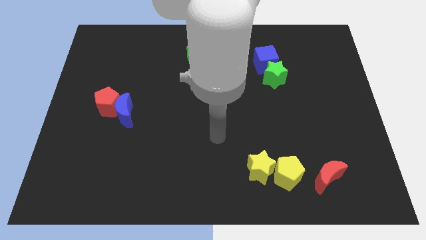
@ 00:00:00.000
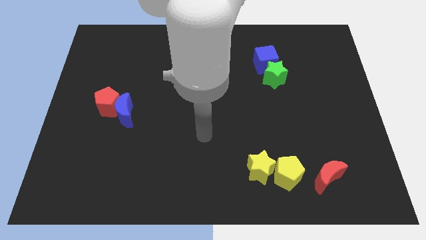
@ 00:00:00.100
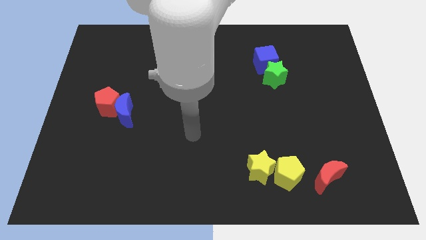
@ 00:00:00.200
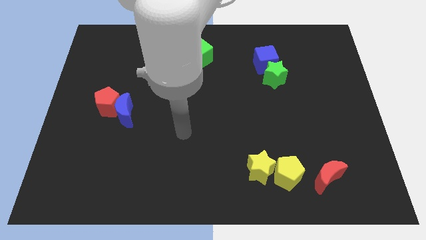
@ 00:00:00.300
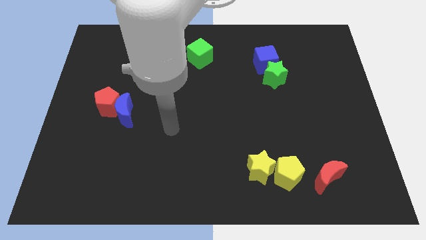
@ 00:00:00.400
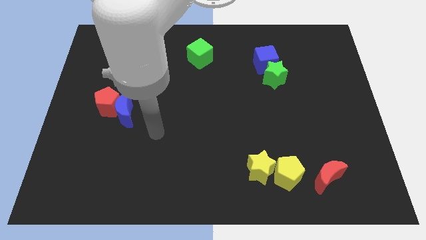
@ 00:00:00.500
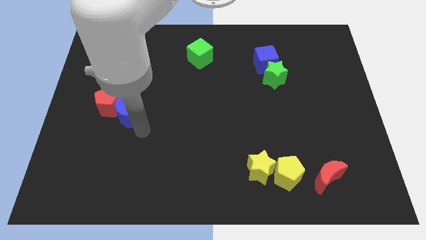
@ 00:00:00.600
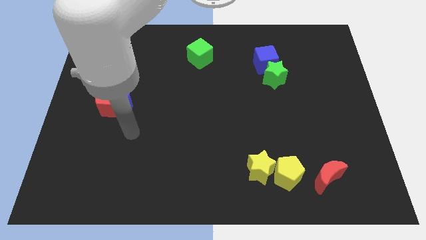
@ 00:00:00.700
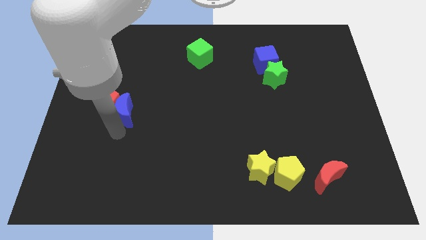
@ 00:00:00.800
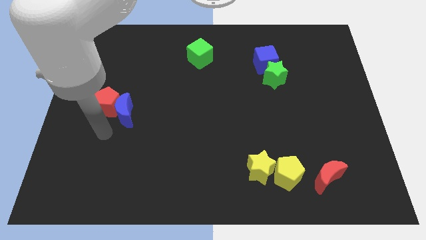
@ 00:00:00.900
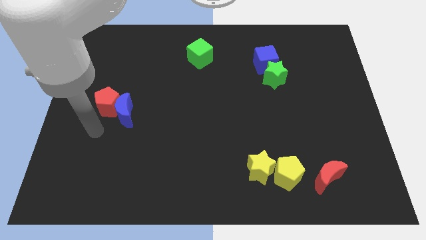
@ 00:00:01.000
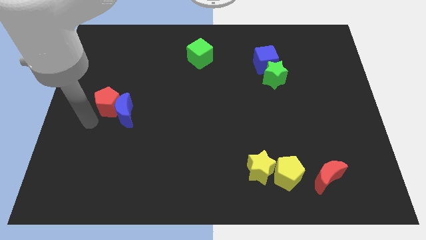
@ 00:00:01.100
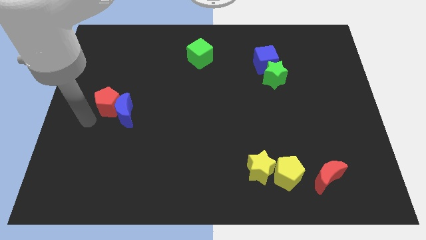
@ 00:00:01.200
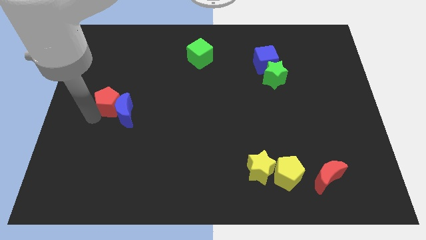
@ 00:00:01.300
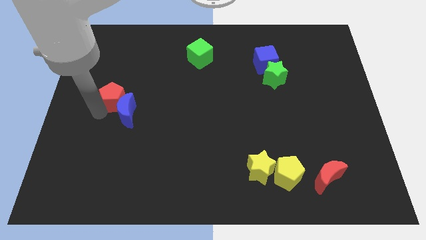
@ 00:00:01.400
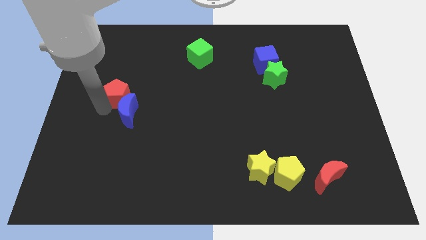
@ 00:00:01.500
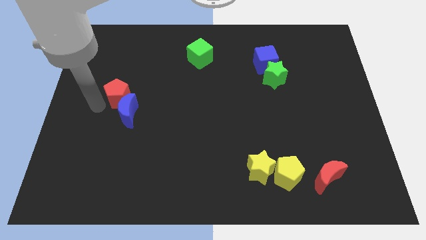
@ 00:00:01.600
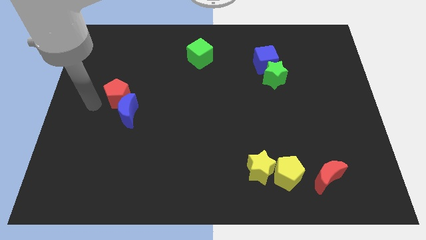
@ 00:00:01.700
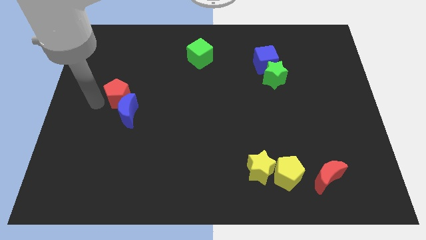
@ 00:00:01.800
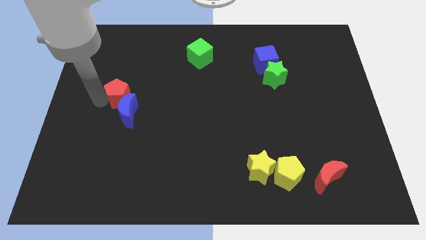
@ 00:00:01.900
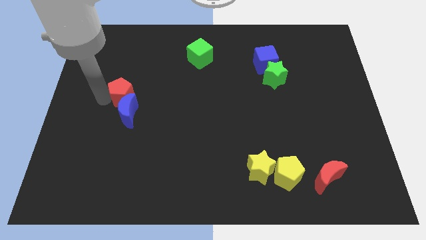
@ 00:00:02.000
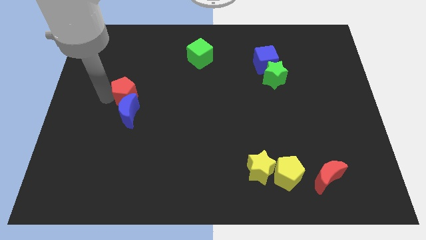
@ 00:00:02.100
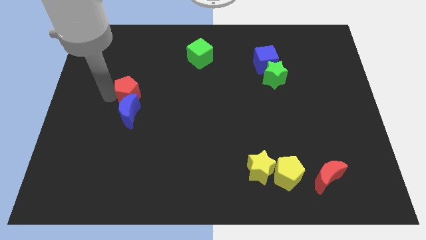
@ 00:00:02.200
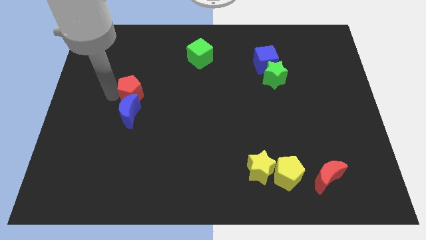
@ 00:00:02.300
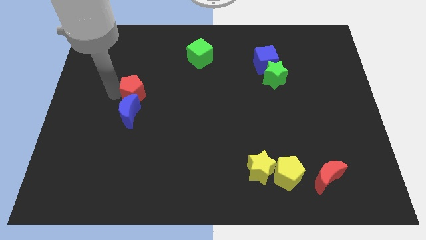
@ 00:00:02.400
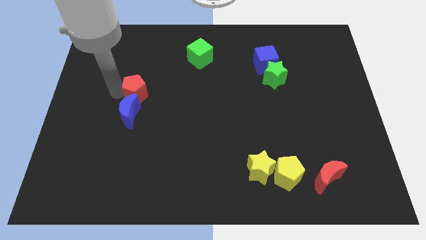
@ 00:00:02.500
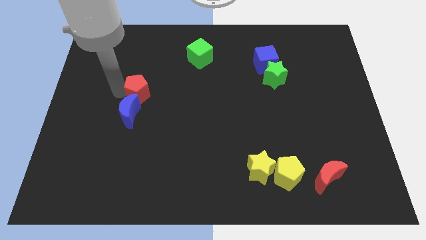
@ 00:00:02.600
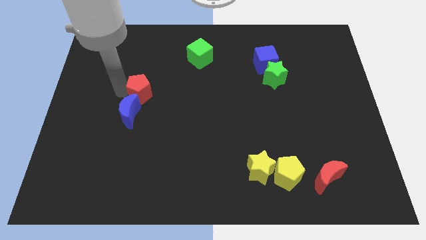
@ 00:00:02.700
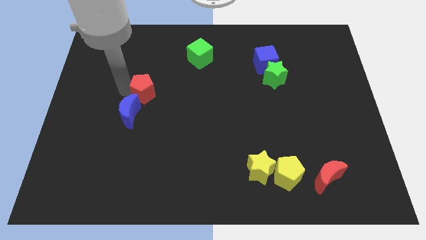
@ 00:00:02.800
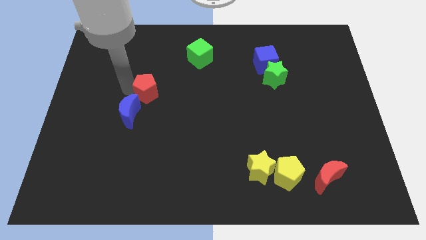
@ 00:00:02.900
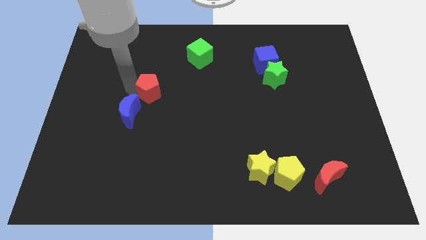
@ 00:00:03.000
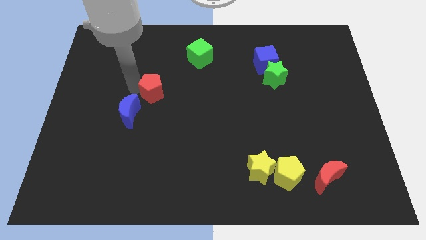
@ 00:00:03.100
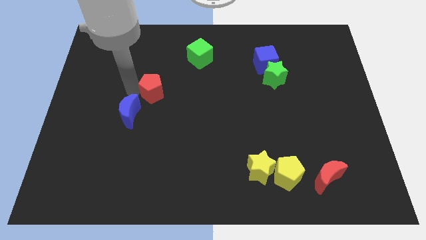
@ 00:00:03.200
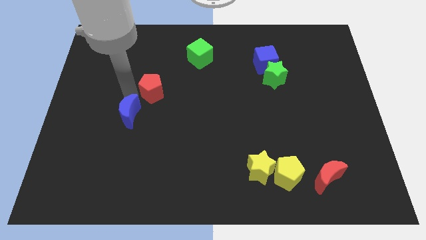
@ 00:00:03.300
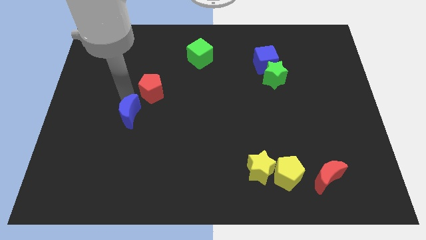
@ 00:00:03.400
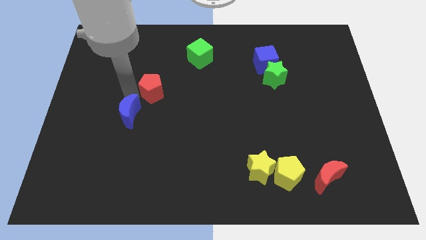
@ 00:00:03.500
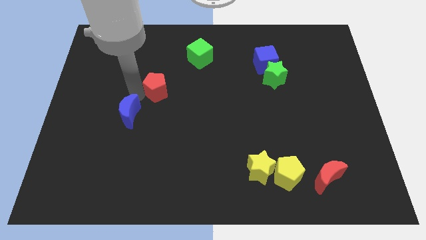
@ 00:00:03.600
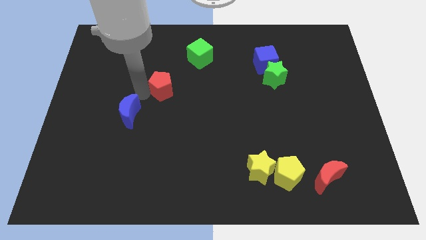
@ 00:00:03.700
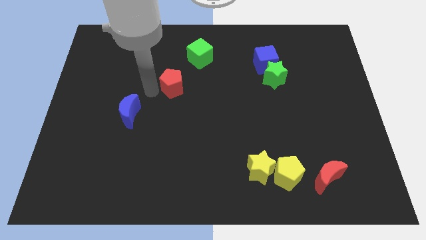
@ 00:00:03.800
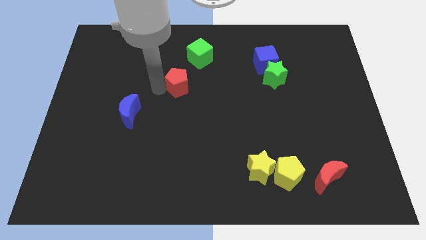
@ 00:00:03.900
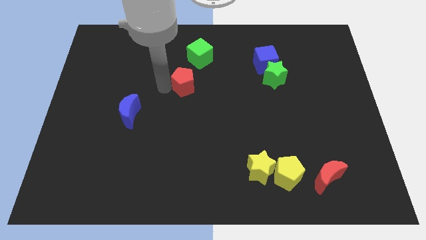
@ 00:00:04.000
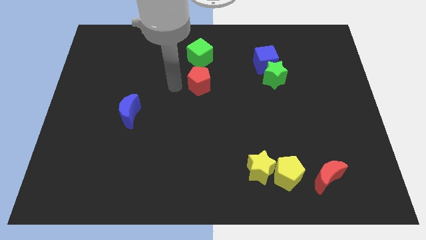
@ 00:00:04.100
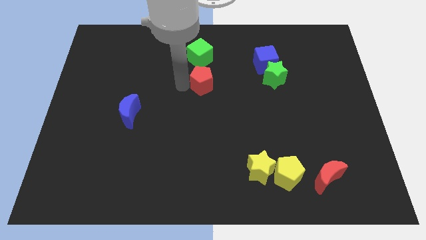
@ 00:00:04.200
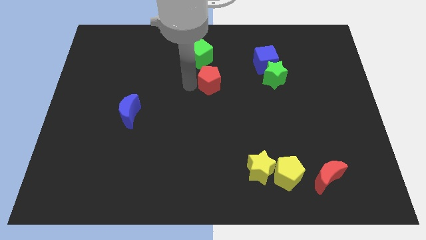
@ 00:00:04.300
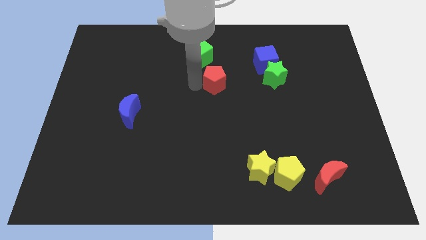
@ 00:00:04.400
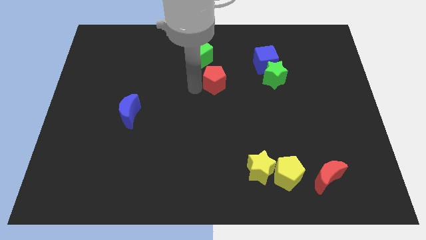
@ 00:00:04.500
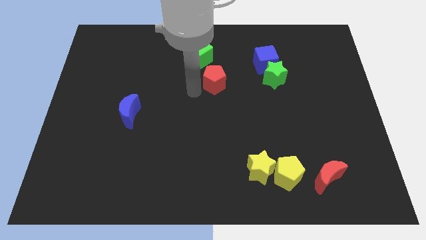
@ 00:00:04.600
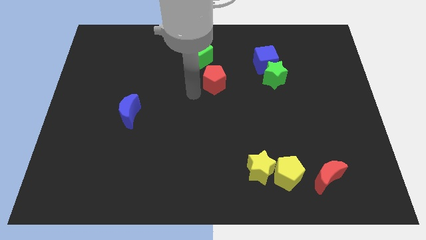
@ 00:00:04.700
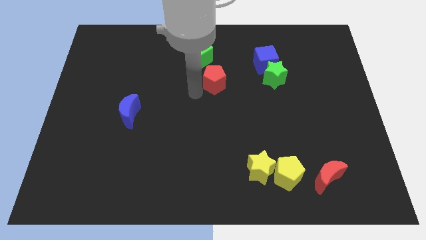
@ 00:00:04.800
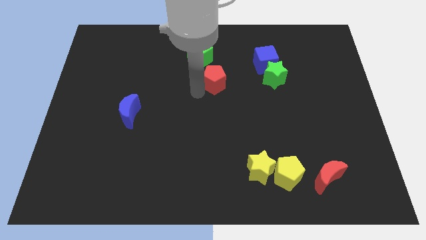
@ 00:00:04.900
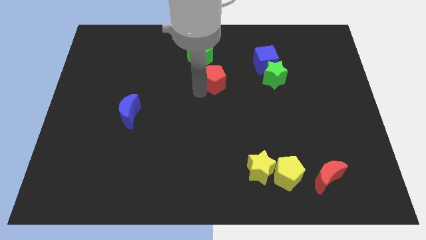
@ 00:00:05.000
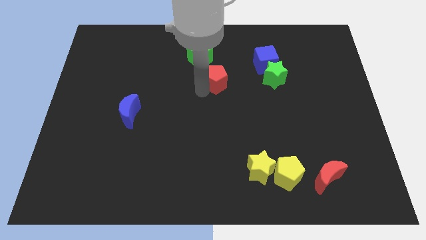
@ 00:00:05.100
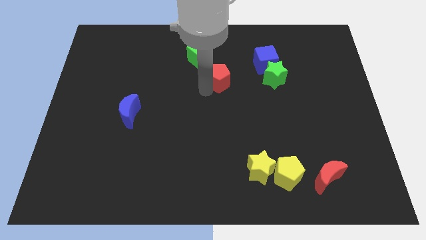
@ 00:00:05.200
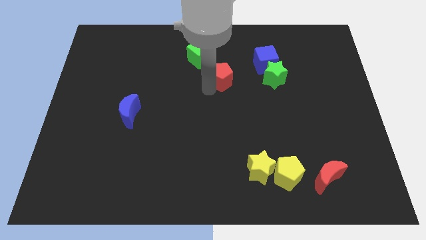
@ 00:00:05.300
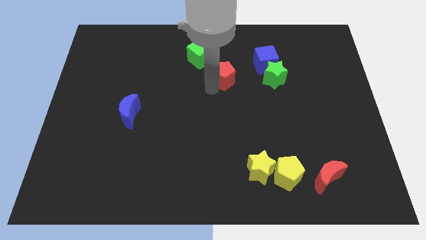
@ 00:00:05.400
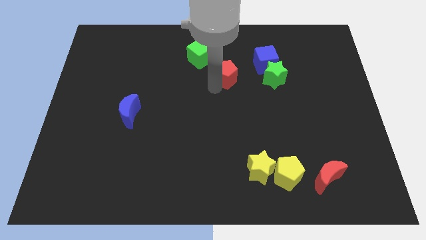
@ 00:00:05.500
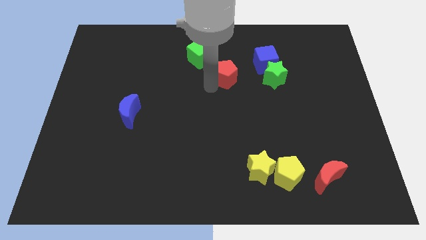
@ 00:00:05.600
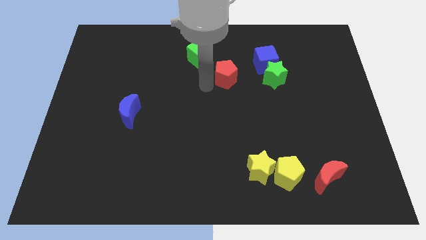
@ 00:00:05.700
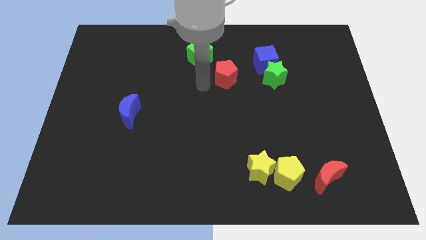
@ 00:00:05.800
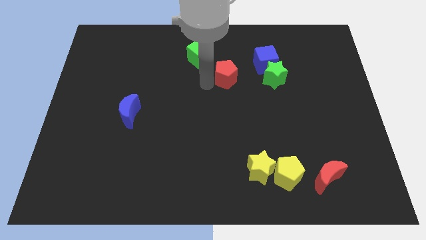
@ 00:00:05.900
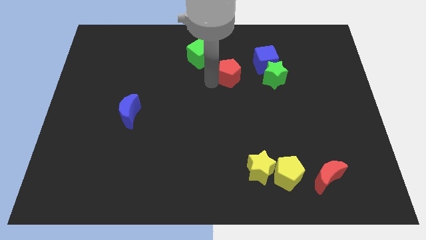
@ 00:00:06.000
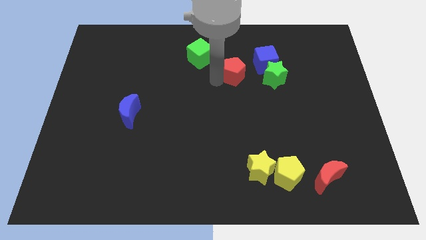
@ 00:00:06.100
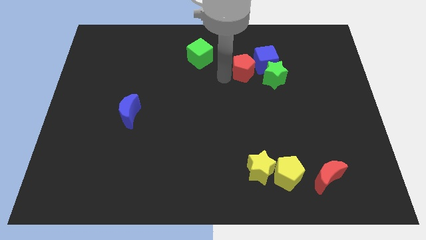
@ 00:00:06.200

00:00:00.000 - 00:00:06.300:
slide the red pentagon to the blue cube

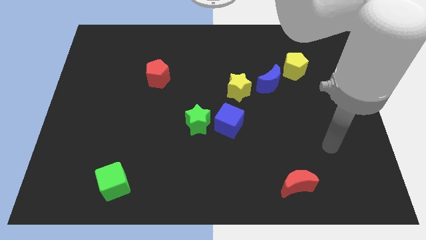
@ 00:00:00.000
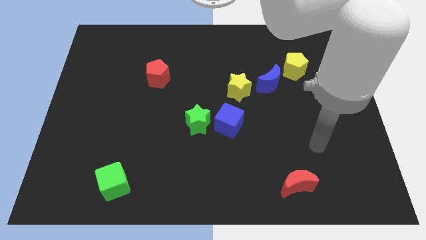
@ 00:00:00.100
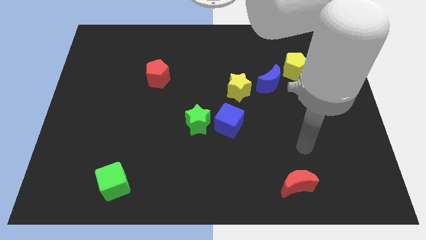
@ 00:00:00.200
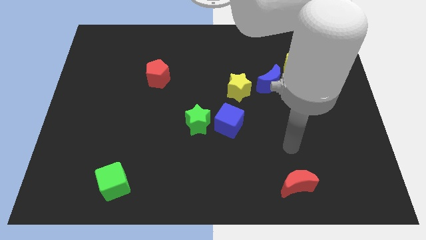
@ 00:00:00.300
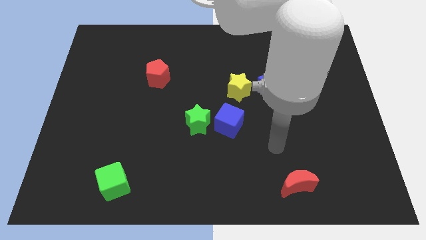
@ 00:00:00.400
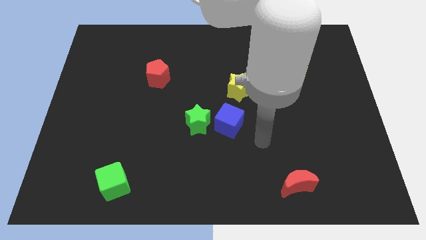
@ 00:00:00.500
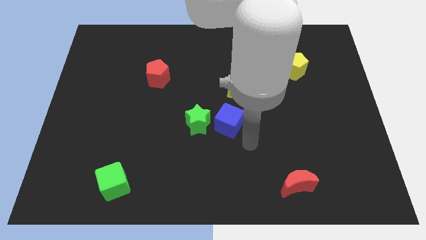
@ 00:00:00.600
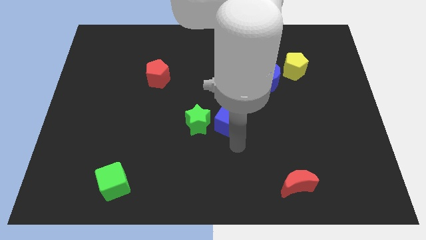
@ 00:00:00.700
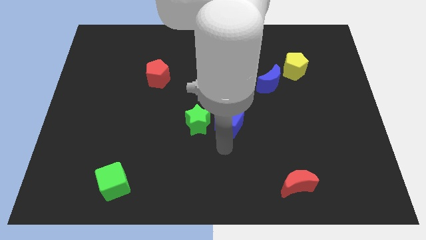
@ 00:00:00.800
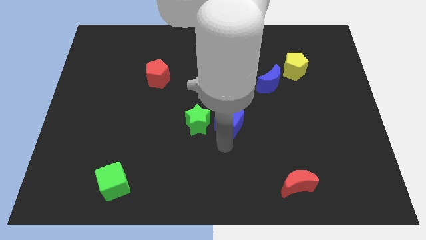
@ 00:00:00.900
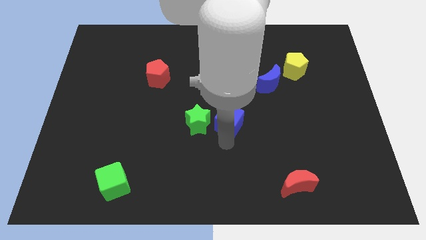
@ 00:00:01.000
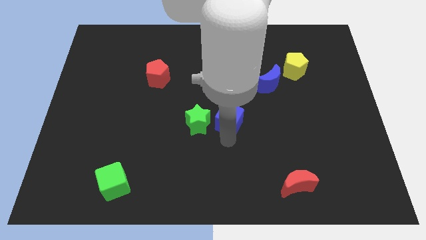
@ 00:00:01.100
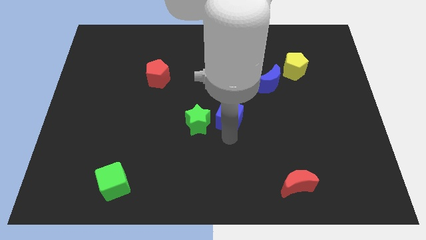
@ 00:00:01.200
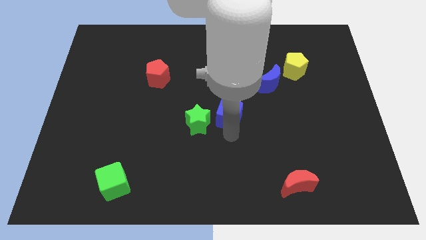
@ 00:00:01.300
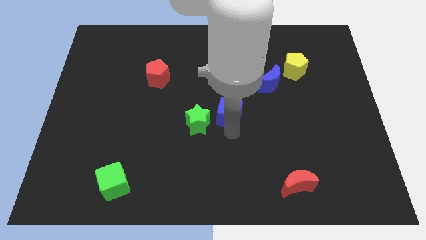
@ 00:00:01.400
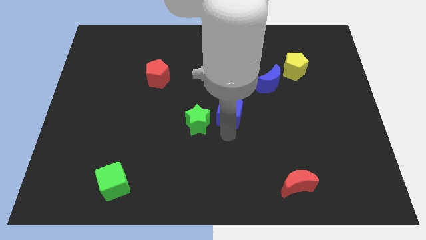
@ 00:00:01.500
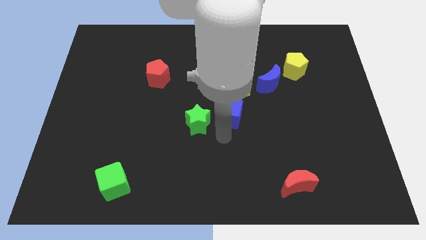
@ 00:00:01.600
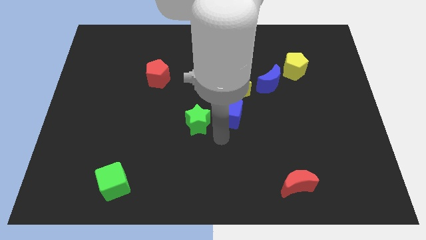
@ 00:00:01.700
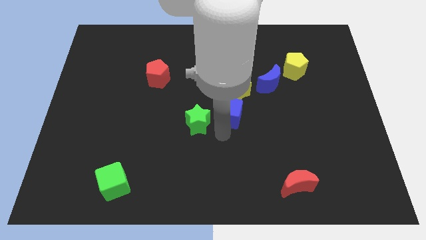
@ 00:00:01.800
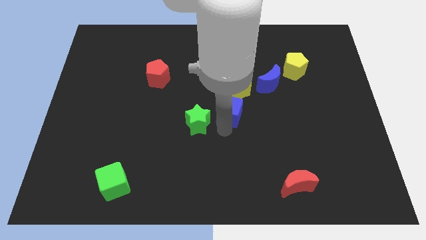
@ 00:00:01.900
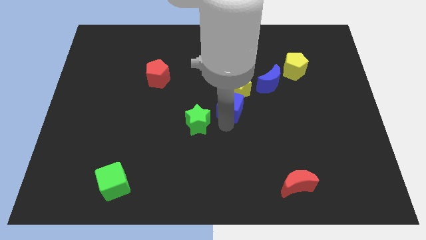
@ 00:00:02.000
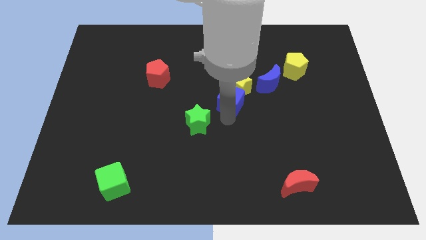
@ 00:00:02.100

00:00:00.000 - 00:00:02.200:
move the blue cube to the yellow star
